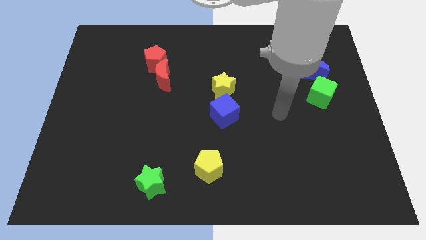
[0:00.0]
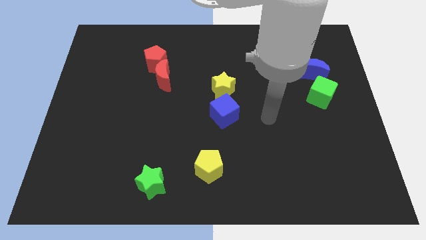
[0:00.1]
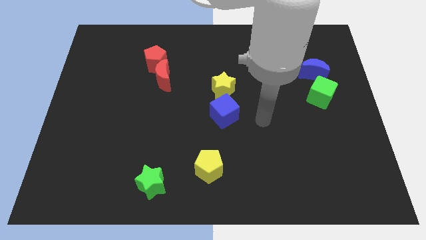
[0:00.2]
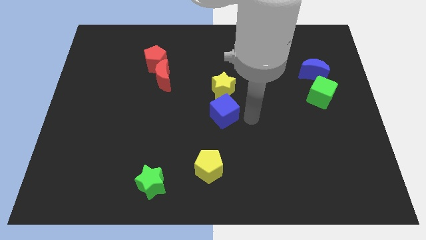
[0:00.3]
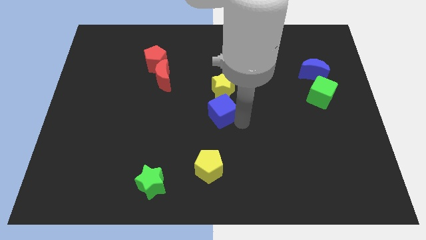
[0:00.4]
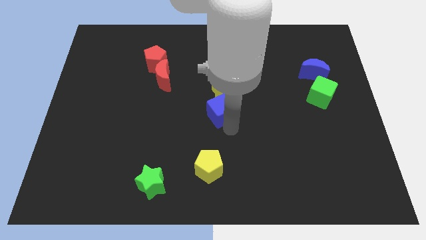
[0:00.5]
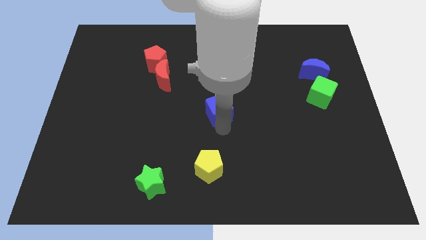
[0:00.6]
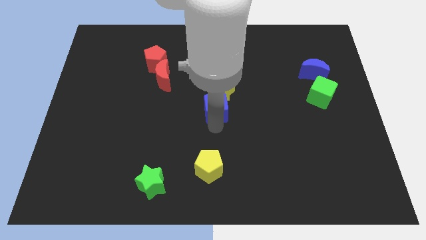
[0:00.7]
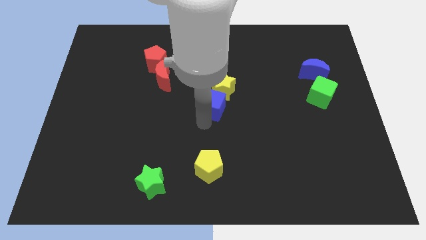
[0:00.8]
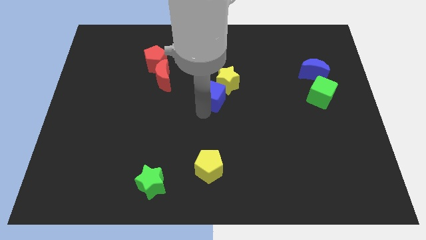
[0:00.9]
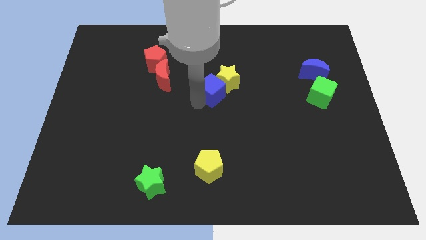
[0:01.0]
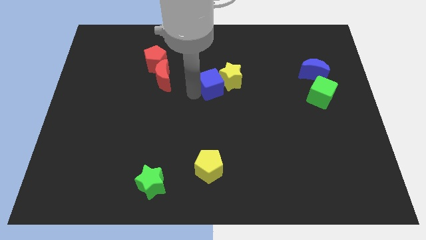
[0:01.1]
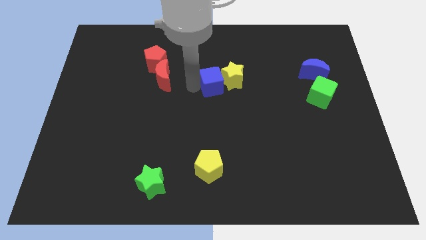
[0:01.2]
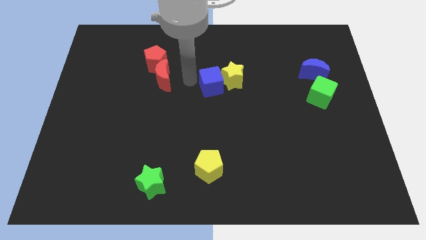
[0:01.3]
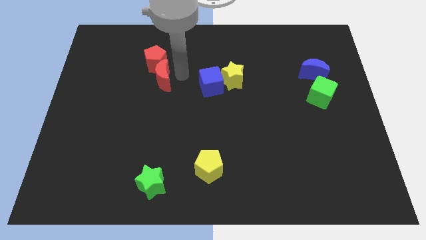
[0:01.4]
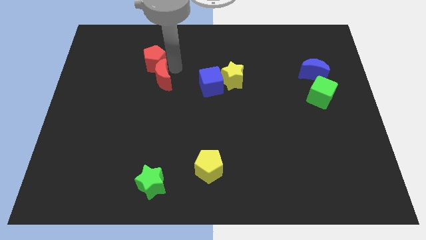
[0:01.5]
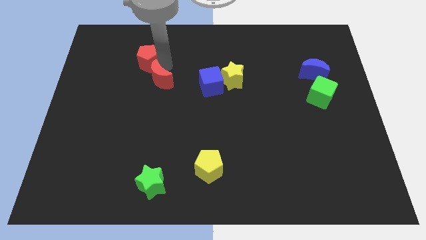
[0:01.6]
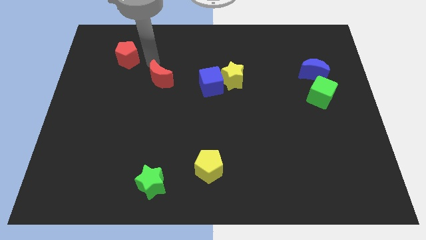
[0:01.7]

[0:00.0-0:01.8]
separate the red moon from the red pentagon

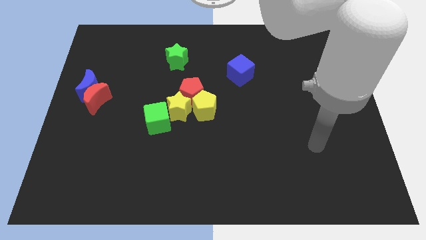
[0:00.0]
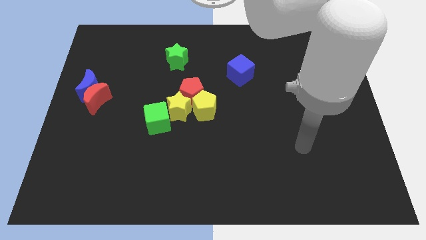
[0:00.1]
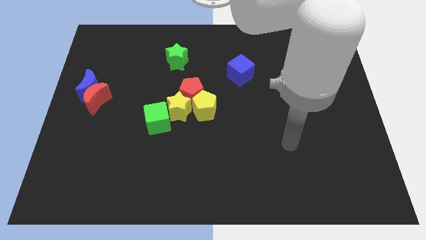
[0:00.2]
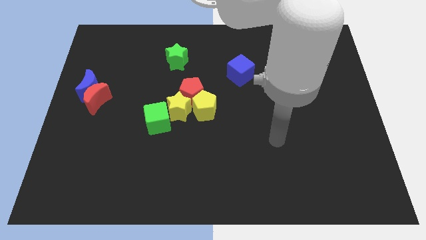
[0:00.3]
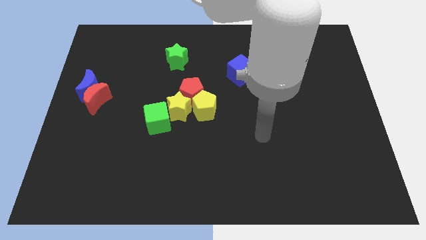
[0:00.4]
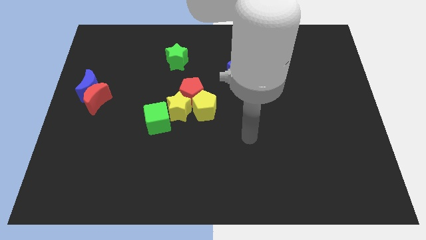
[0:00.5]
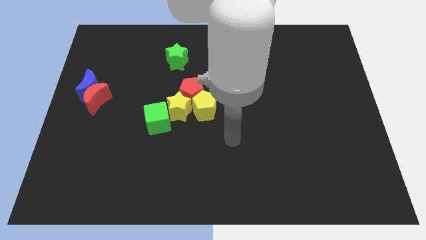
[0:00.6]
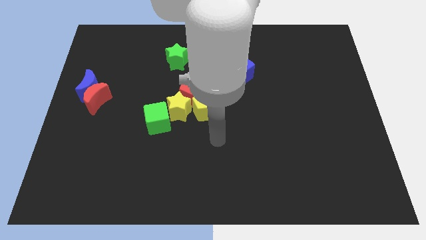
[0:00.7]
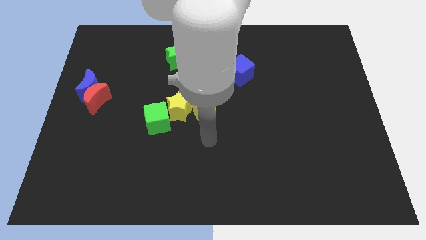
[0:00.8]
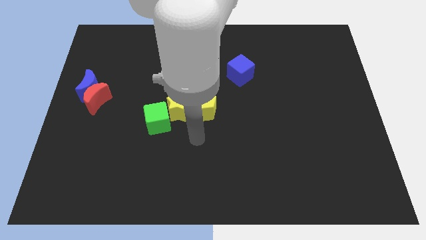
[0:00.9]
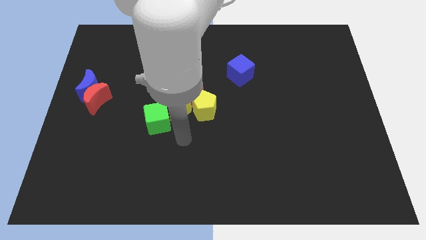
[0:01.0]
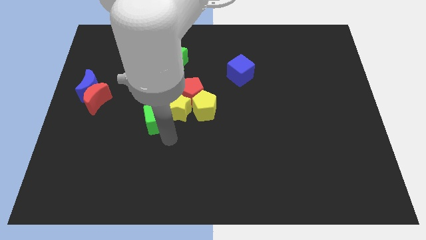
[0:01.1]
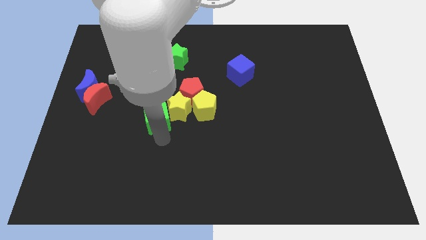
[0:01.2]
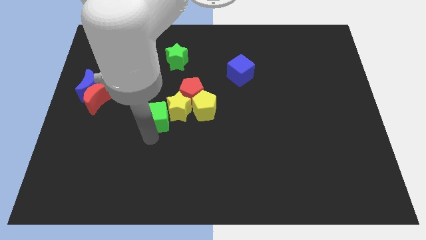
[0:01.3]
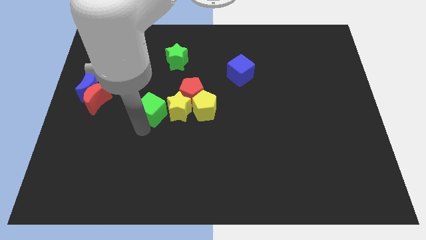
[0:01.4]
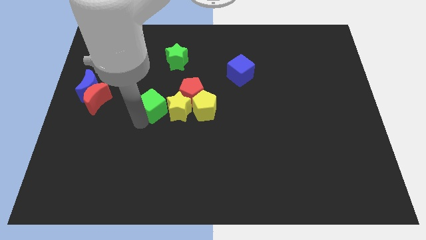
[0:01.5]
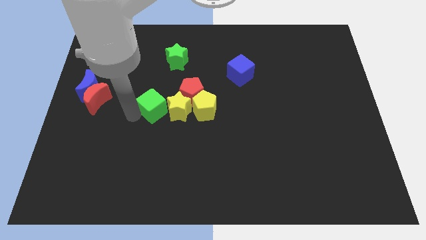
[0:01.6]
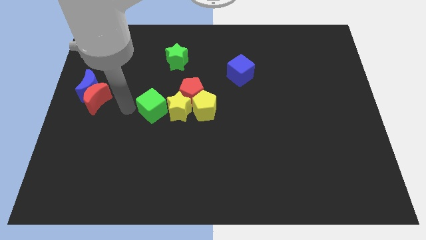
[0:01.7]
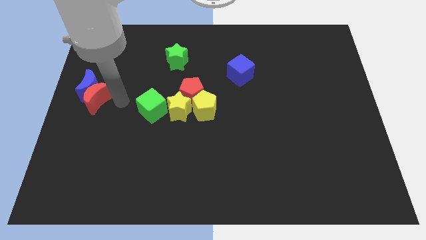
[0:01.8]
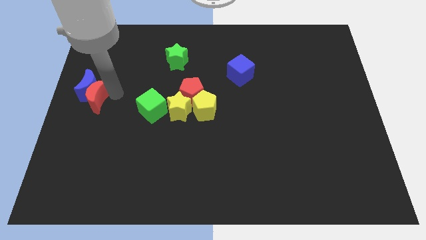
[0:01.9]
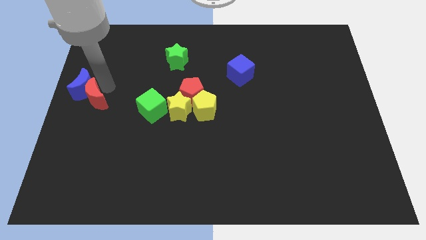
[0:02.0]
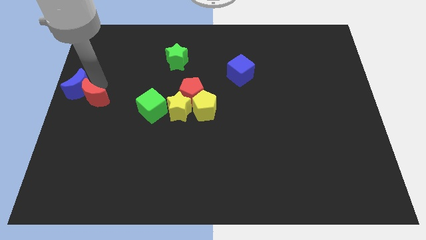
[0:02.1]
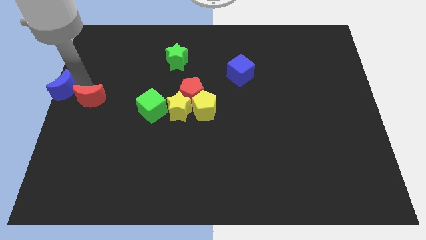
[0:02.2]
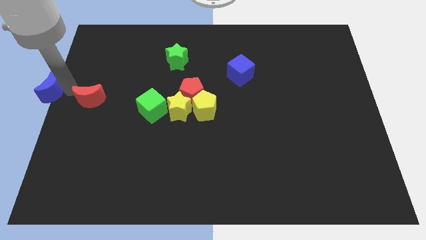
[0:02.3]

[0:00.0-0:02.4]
pull the red moon apart from the blue moon

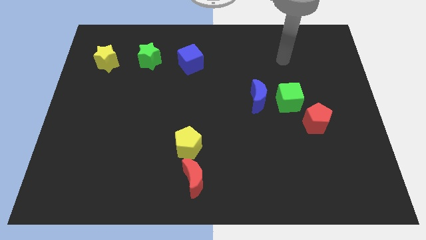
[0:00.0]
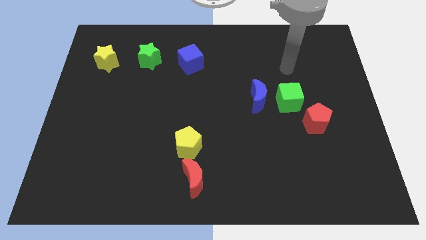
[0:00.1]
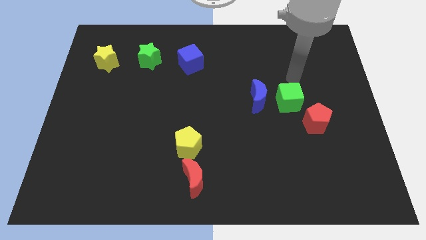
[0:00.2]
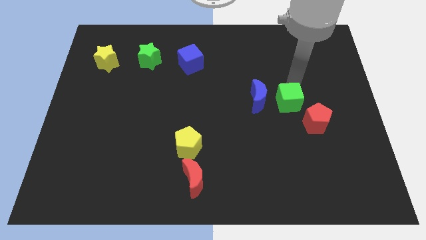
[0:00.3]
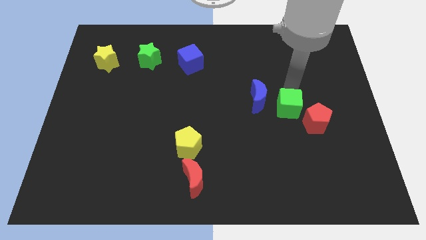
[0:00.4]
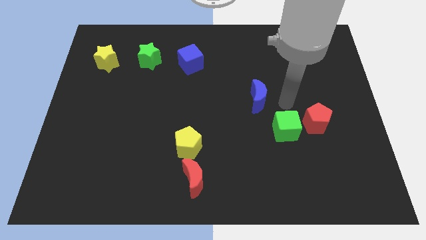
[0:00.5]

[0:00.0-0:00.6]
move the blue moon away from the green cube

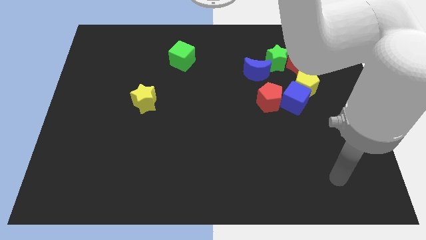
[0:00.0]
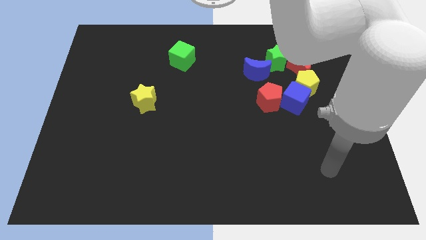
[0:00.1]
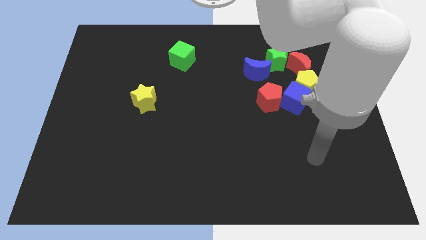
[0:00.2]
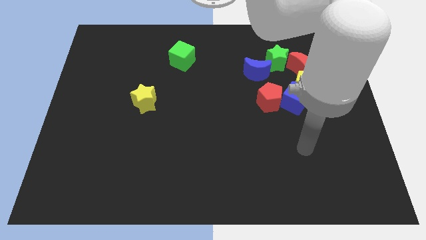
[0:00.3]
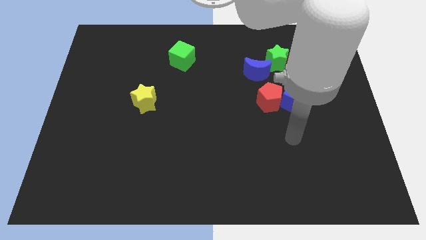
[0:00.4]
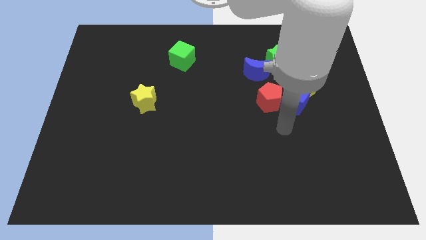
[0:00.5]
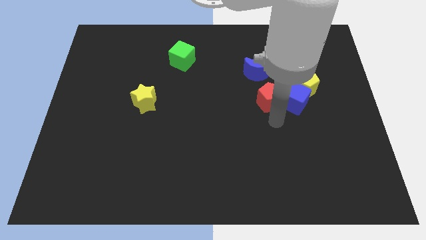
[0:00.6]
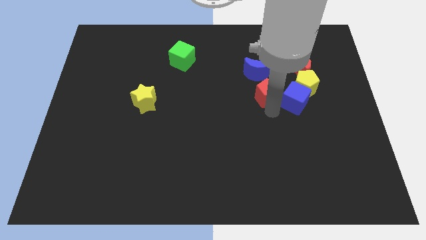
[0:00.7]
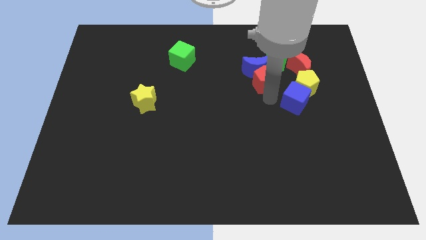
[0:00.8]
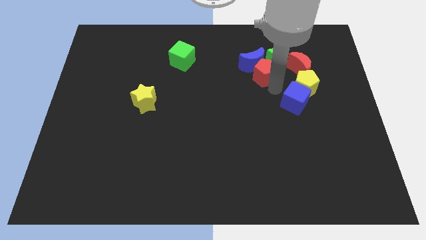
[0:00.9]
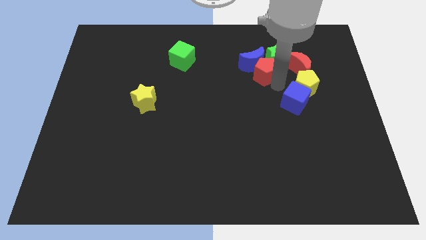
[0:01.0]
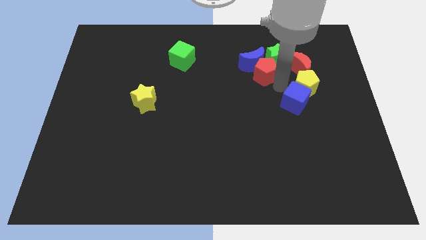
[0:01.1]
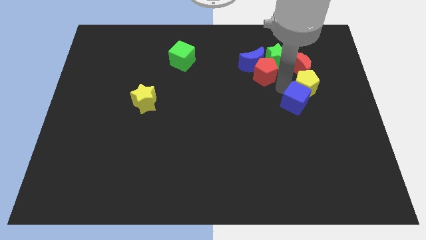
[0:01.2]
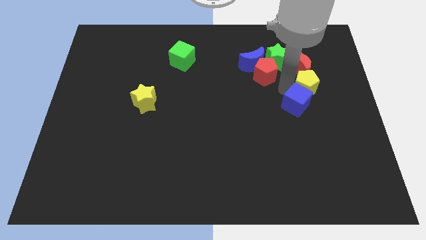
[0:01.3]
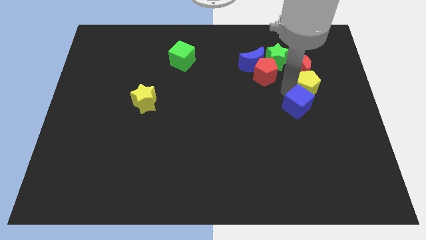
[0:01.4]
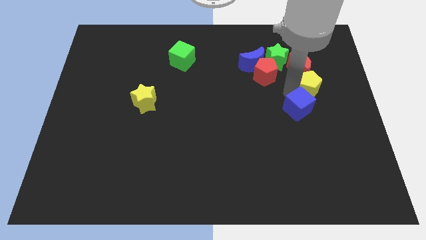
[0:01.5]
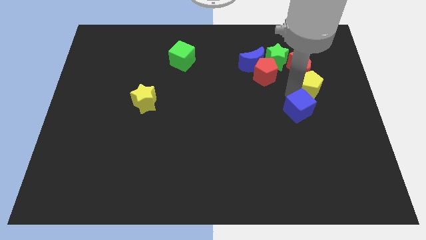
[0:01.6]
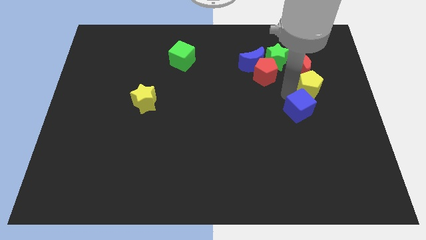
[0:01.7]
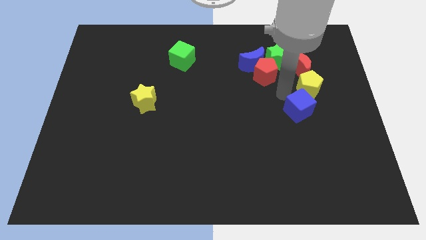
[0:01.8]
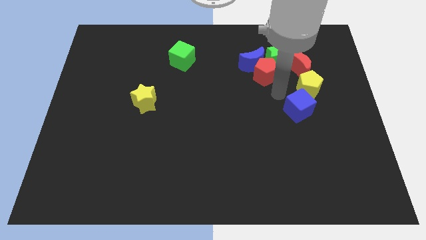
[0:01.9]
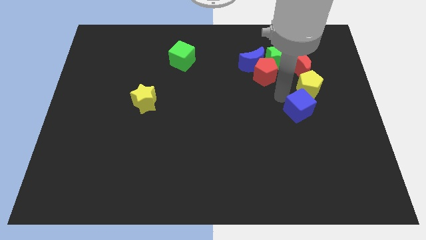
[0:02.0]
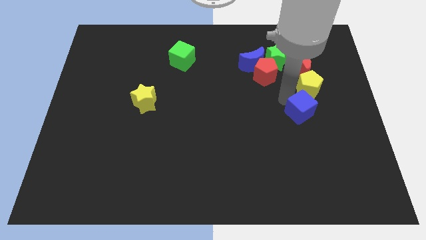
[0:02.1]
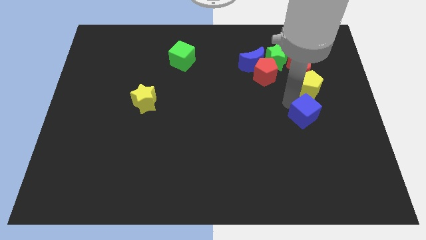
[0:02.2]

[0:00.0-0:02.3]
move the blue cube away from the yellow pentagon and red pentagon

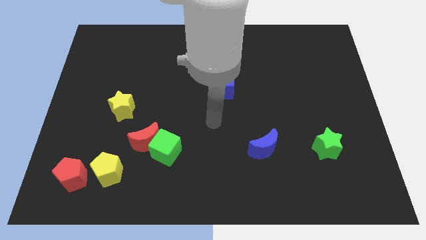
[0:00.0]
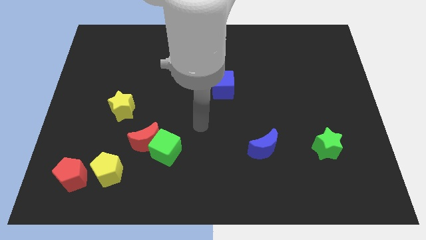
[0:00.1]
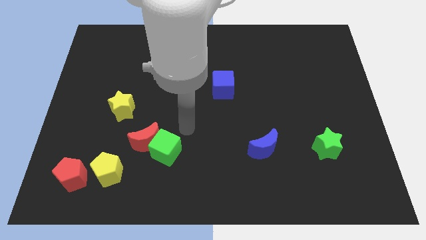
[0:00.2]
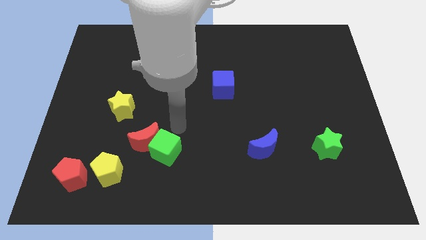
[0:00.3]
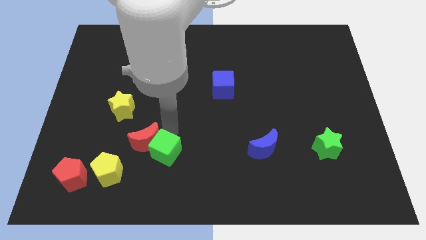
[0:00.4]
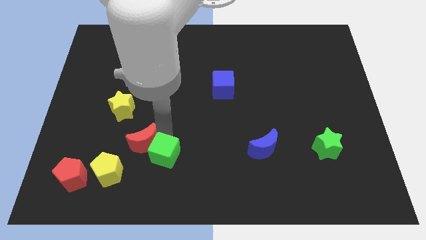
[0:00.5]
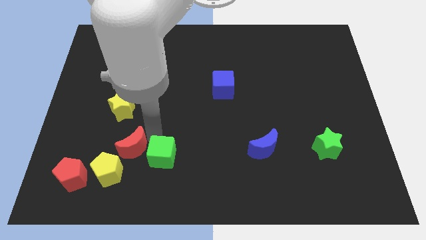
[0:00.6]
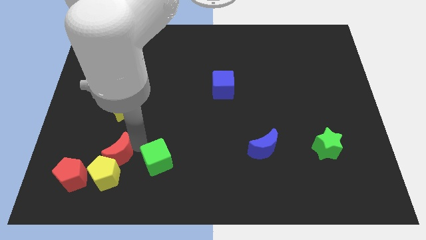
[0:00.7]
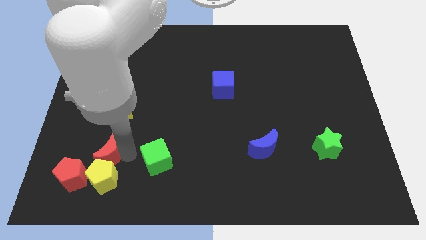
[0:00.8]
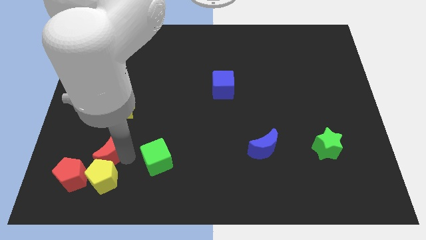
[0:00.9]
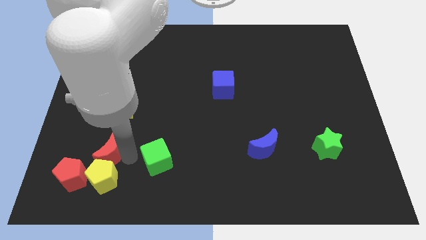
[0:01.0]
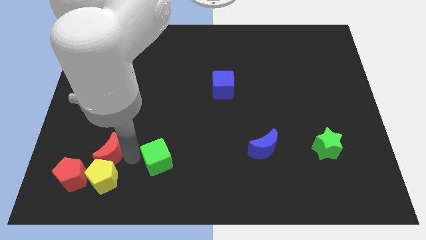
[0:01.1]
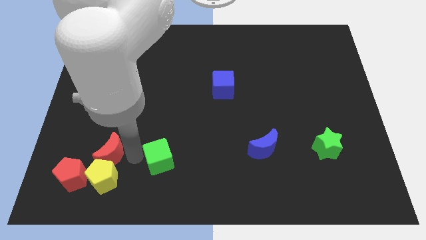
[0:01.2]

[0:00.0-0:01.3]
separate the green cube from the red moon

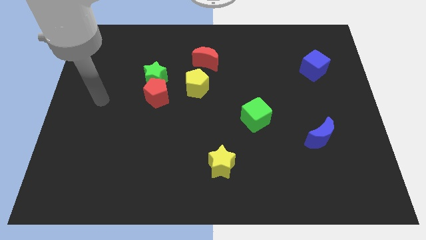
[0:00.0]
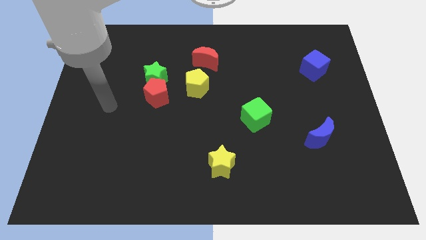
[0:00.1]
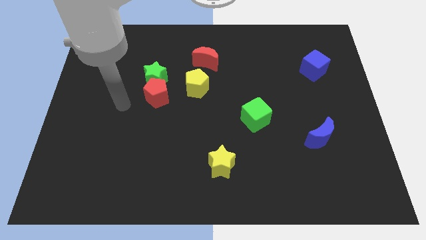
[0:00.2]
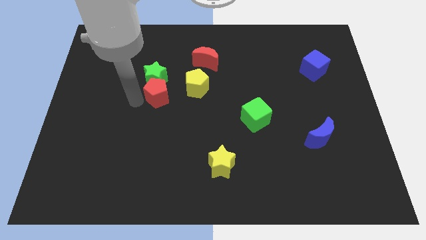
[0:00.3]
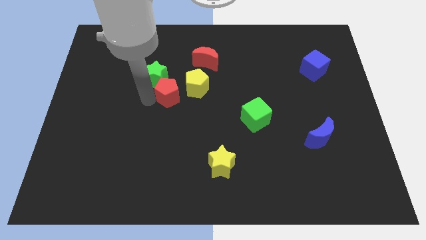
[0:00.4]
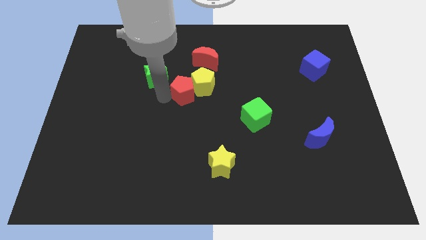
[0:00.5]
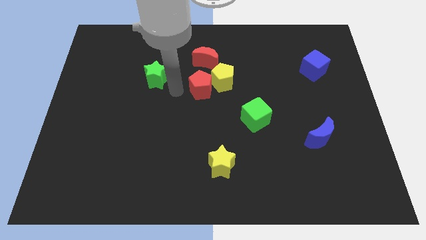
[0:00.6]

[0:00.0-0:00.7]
move the green star away from the red pentagon

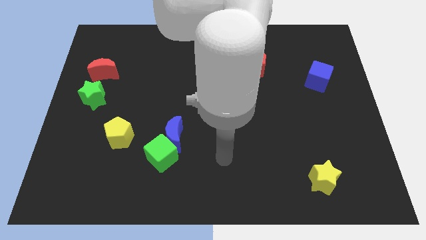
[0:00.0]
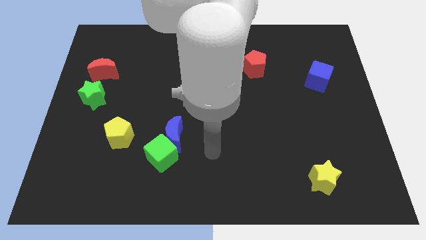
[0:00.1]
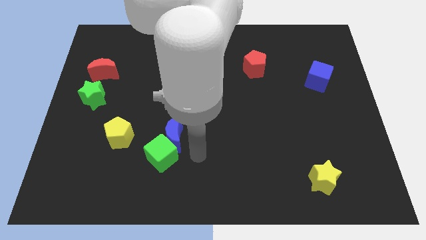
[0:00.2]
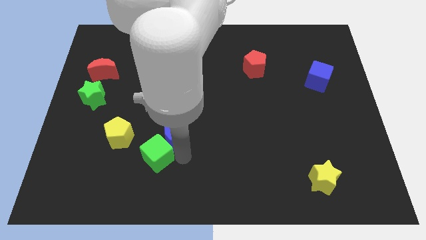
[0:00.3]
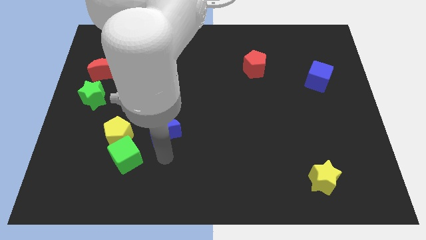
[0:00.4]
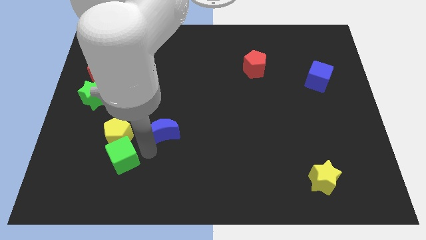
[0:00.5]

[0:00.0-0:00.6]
pull the blue moon apart from the green cube
